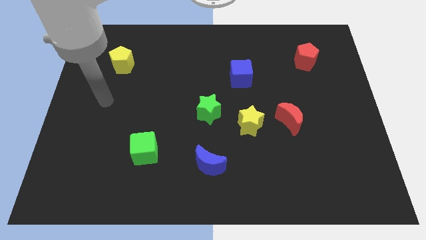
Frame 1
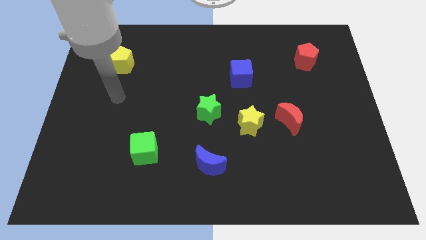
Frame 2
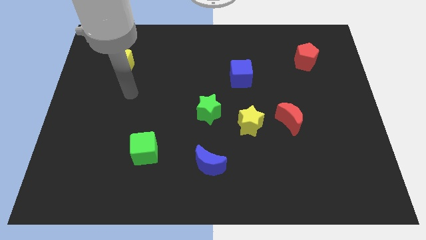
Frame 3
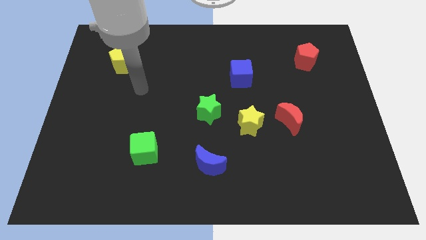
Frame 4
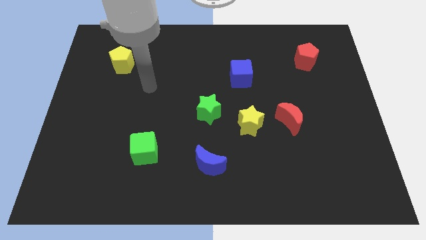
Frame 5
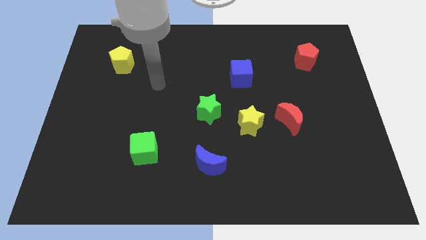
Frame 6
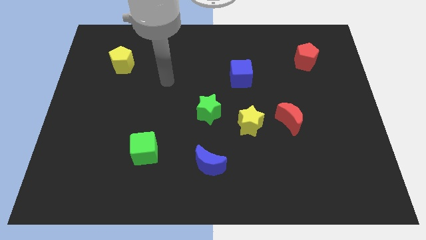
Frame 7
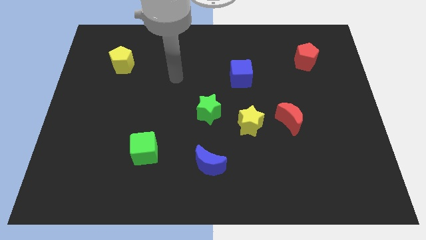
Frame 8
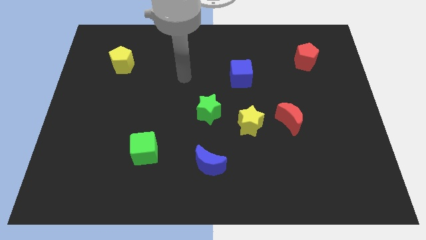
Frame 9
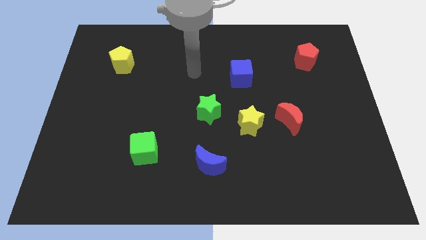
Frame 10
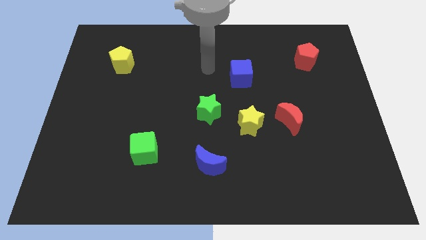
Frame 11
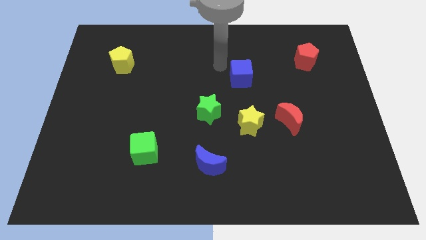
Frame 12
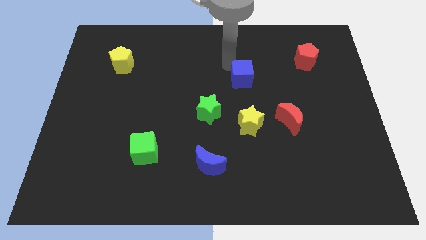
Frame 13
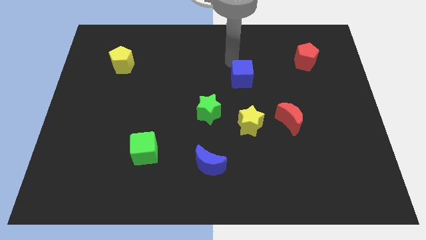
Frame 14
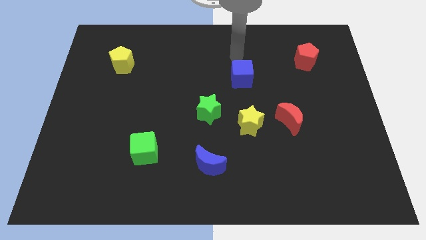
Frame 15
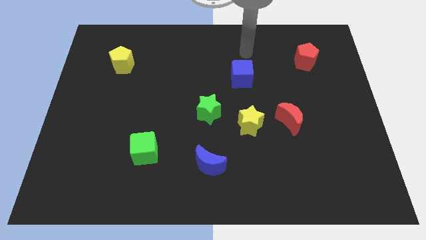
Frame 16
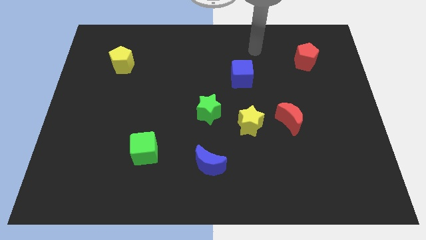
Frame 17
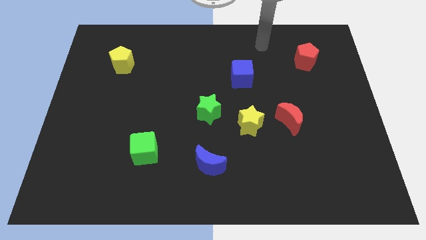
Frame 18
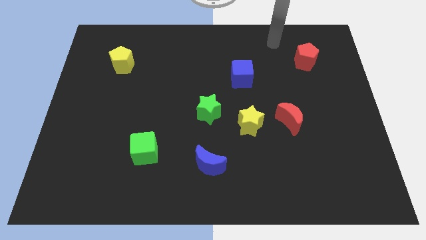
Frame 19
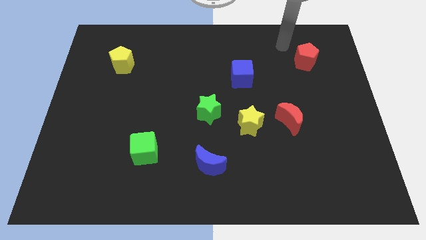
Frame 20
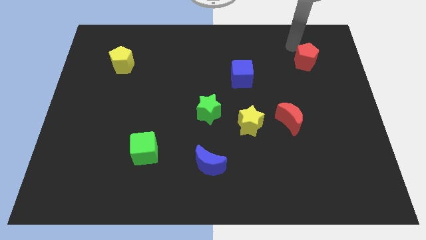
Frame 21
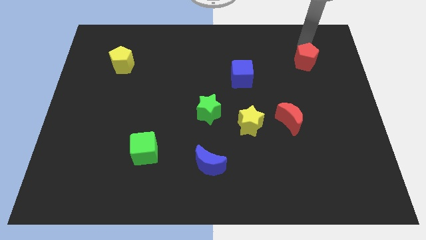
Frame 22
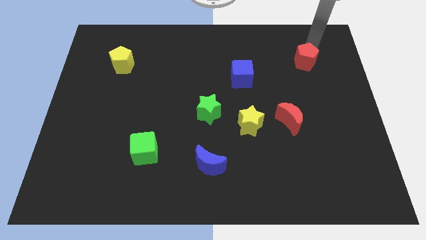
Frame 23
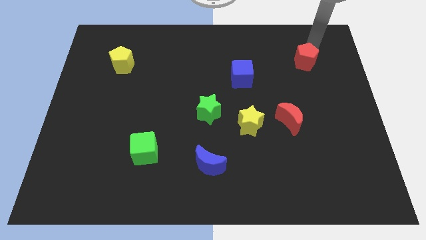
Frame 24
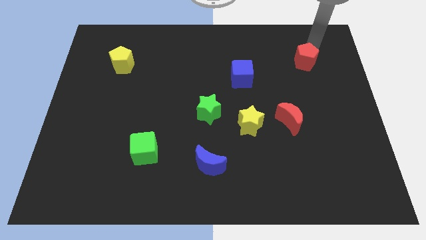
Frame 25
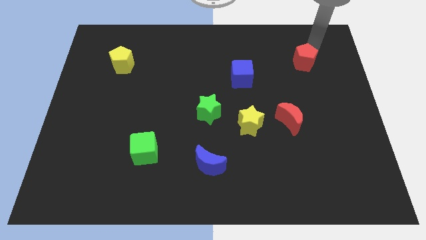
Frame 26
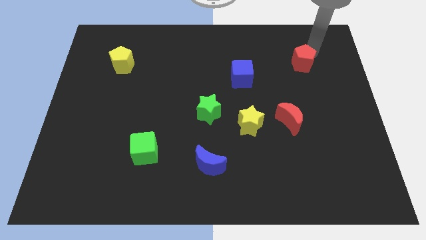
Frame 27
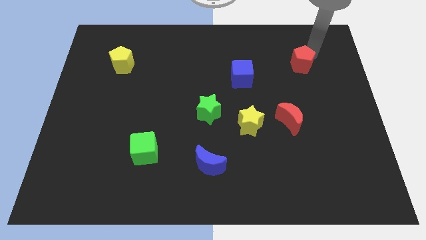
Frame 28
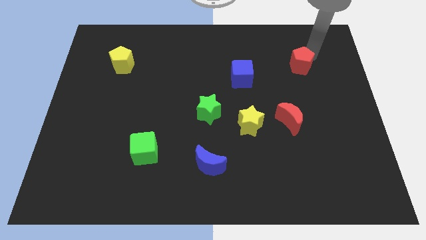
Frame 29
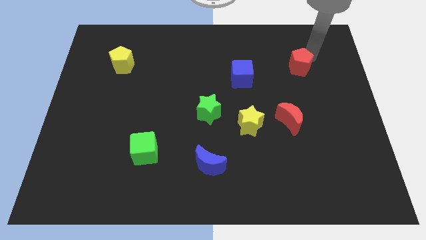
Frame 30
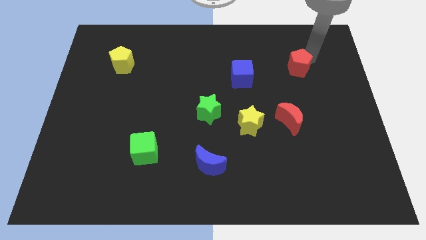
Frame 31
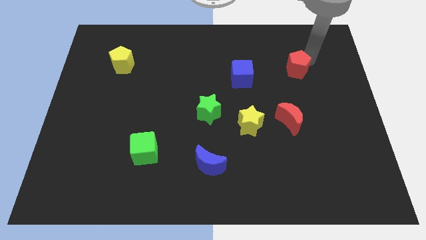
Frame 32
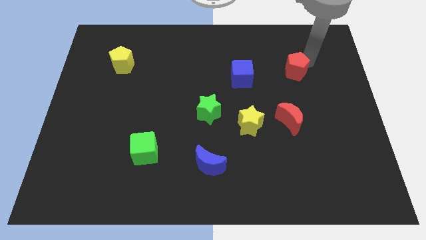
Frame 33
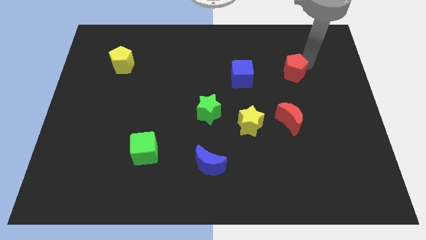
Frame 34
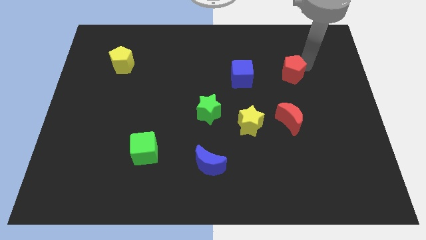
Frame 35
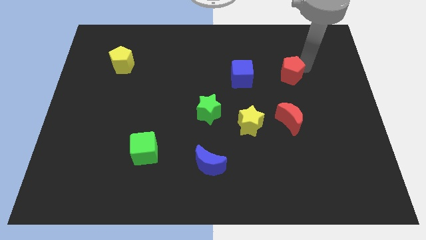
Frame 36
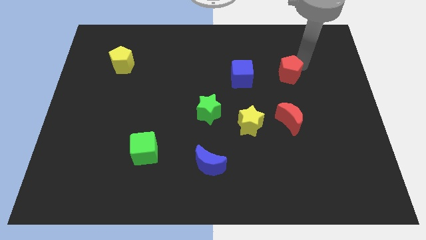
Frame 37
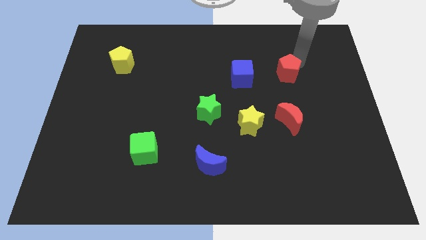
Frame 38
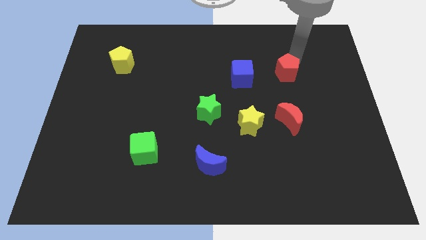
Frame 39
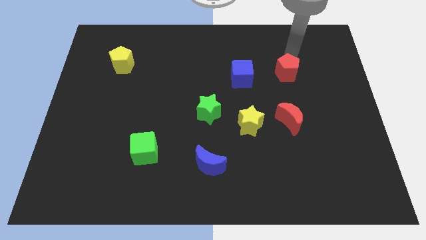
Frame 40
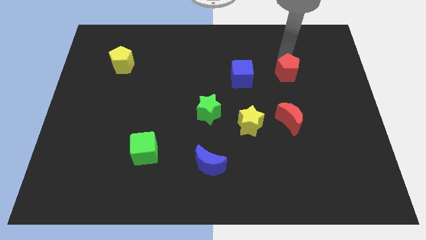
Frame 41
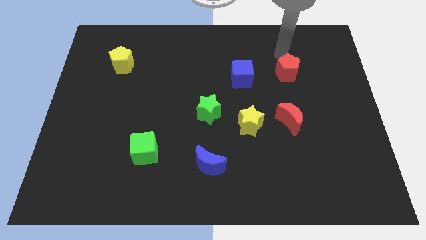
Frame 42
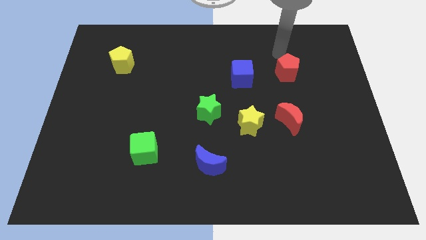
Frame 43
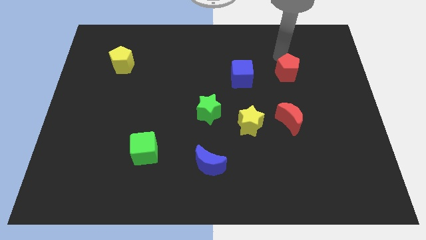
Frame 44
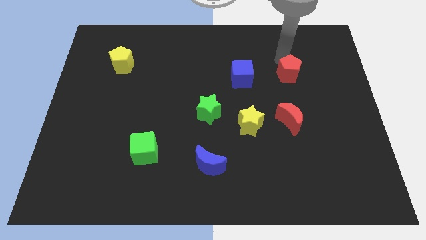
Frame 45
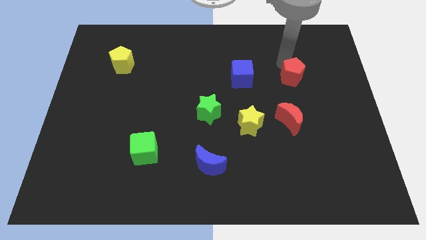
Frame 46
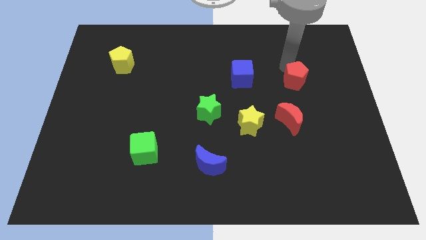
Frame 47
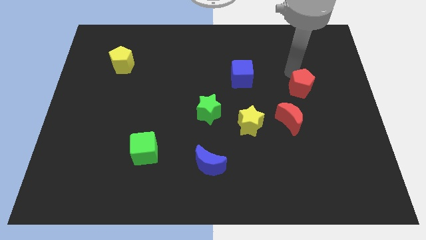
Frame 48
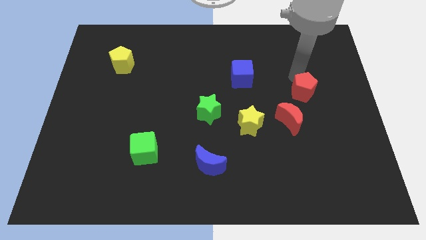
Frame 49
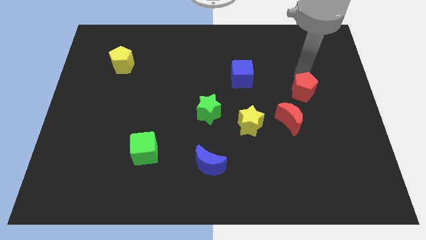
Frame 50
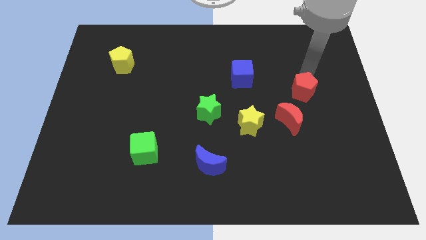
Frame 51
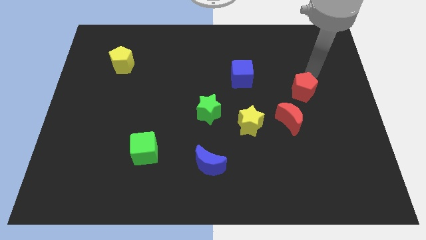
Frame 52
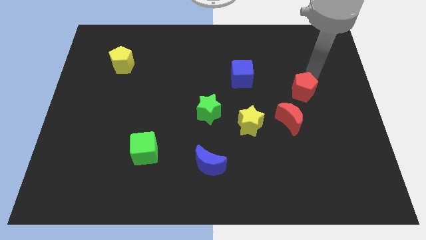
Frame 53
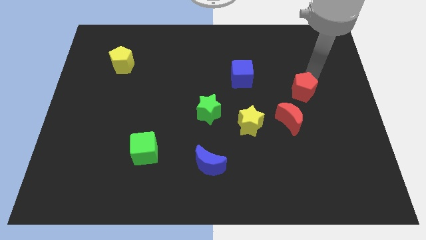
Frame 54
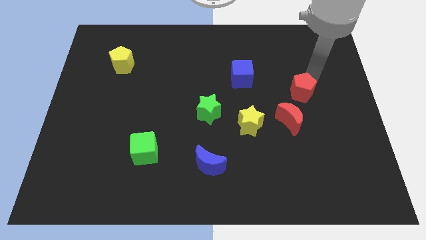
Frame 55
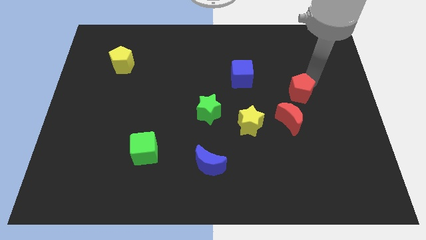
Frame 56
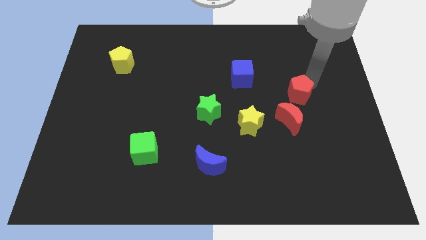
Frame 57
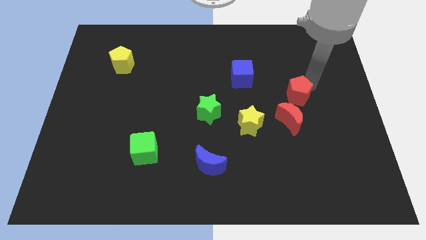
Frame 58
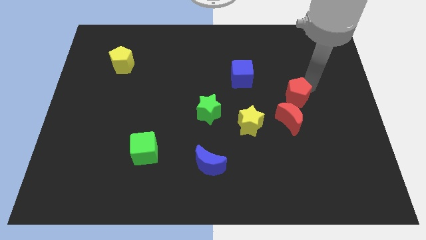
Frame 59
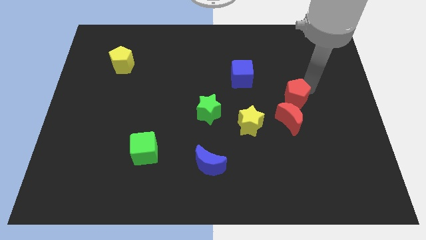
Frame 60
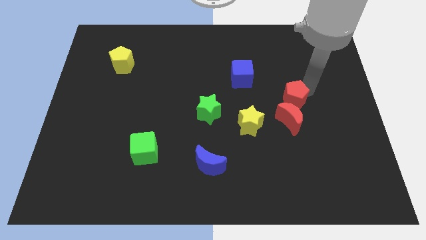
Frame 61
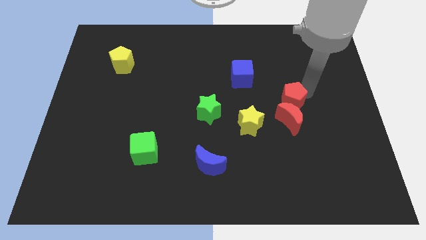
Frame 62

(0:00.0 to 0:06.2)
move the red pentagon close to the red moon
